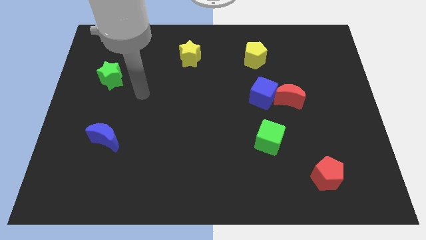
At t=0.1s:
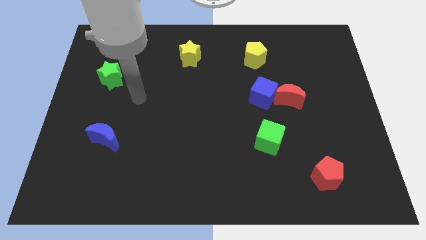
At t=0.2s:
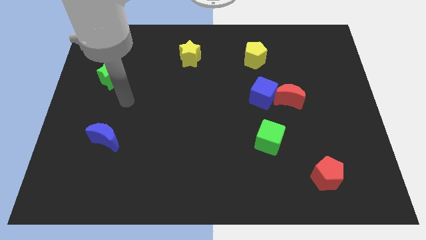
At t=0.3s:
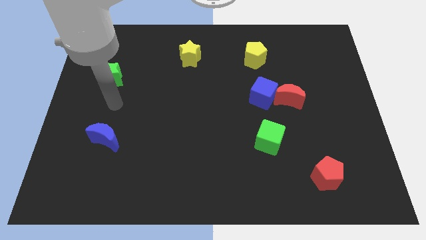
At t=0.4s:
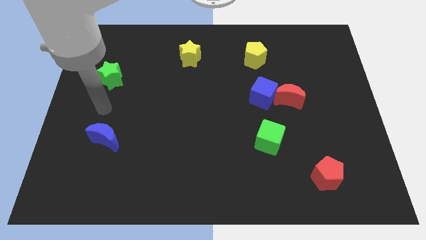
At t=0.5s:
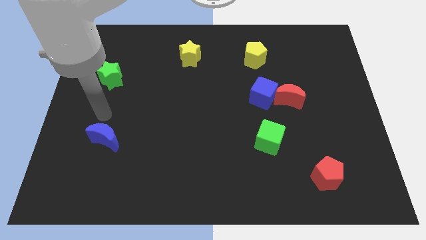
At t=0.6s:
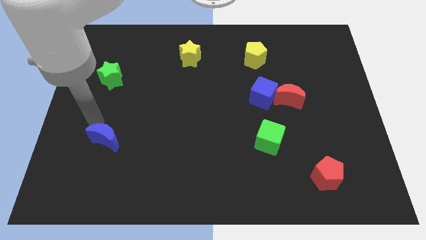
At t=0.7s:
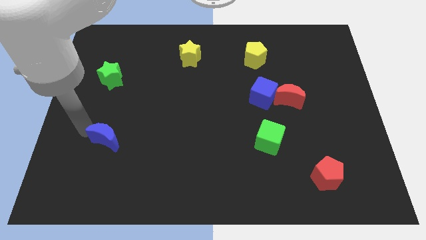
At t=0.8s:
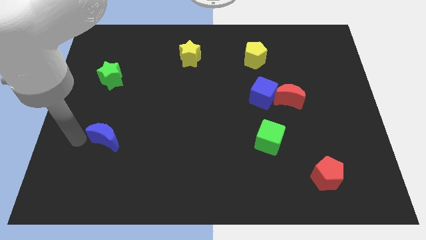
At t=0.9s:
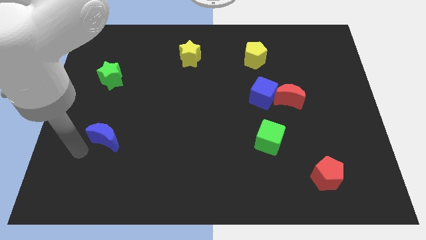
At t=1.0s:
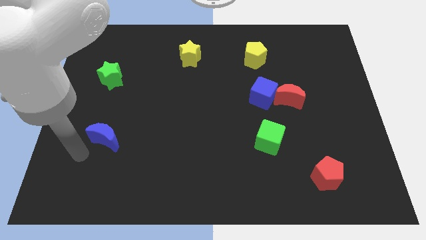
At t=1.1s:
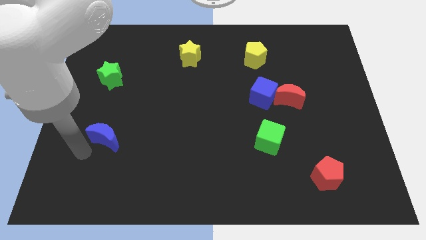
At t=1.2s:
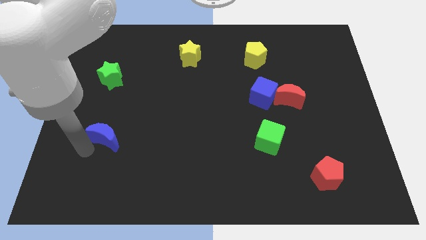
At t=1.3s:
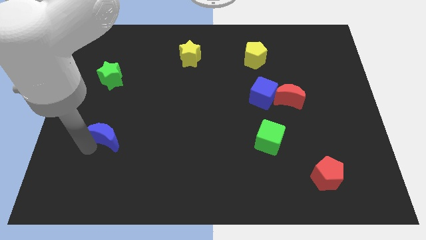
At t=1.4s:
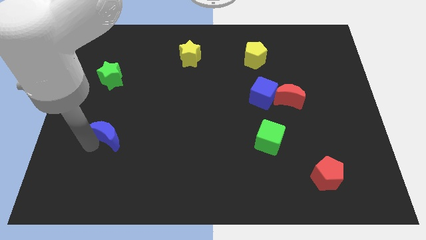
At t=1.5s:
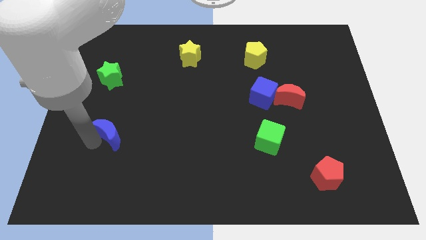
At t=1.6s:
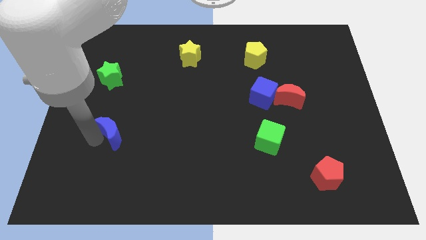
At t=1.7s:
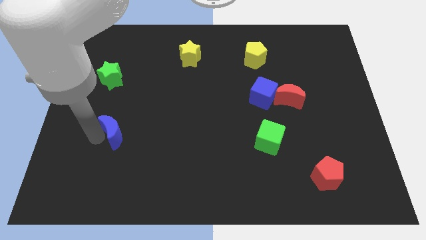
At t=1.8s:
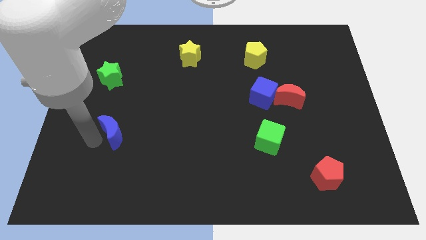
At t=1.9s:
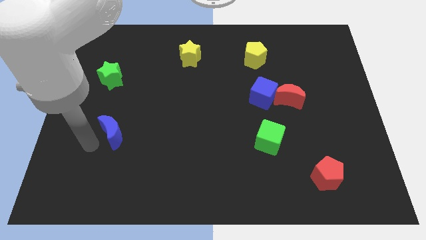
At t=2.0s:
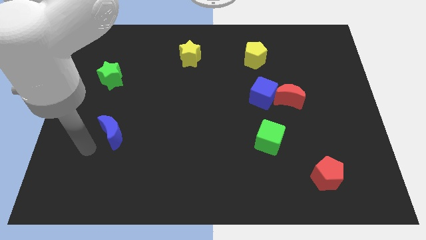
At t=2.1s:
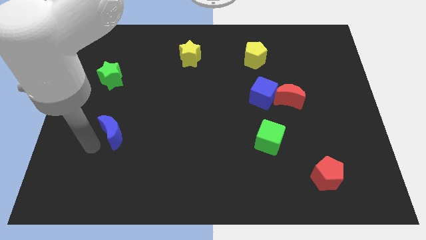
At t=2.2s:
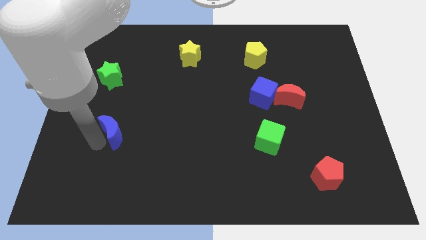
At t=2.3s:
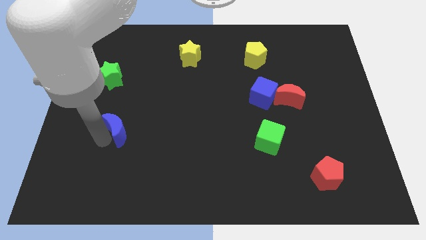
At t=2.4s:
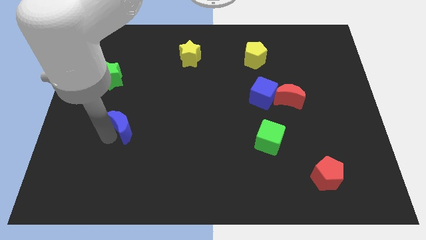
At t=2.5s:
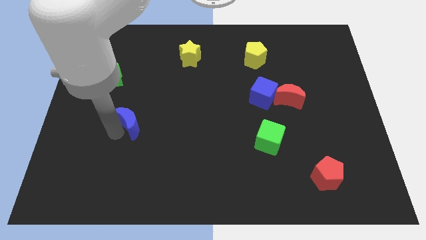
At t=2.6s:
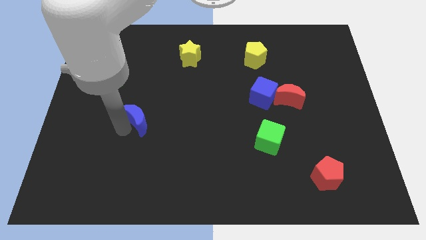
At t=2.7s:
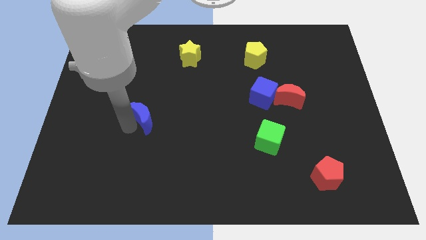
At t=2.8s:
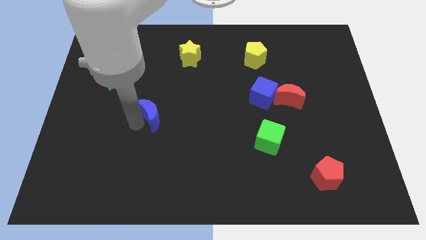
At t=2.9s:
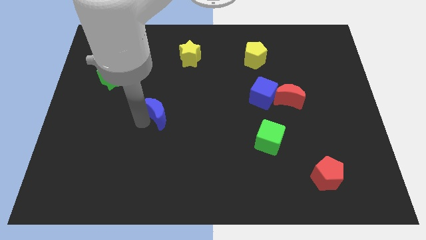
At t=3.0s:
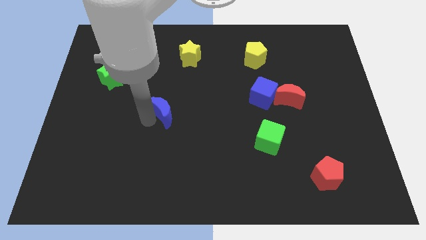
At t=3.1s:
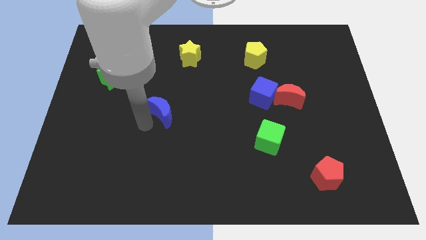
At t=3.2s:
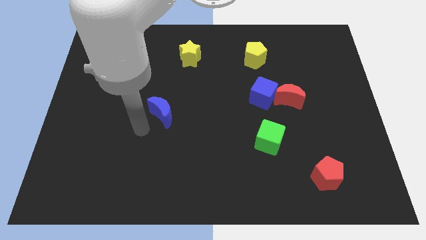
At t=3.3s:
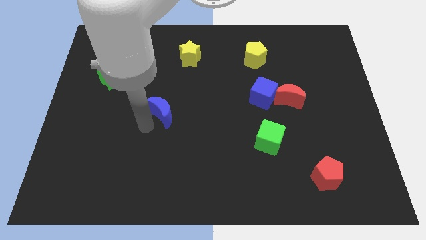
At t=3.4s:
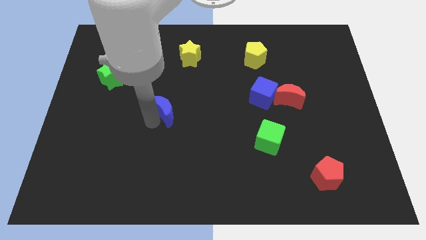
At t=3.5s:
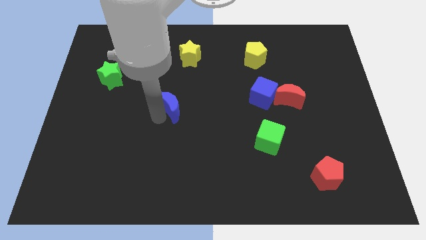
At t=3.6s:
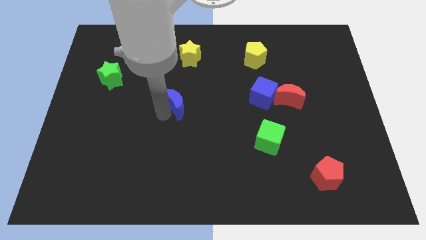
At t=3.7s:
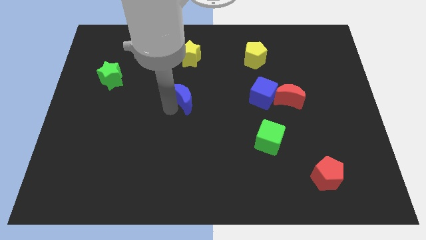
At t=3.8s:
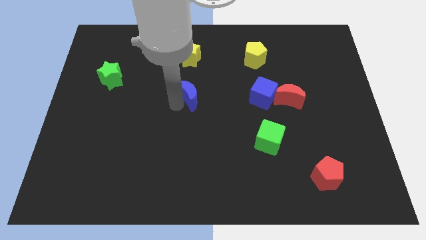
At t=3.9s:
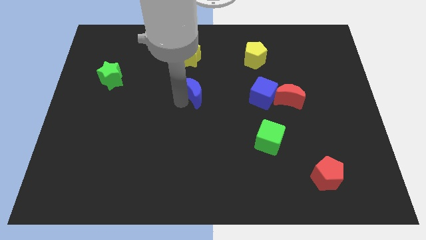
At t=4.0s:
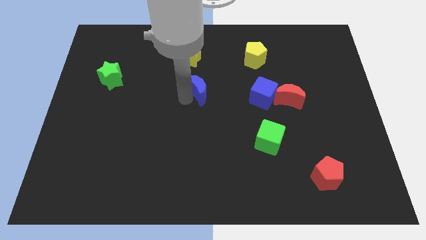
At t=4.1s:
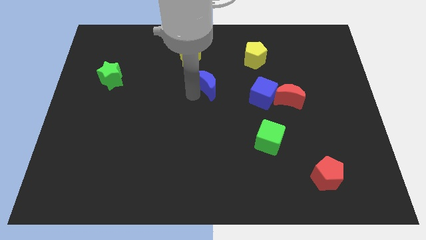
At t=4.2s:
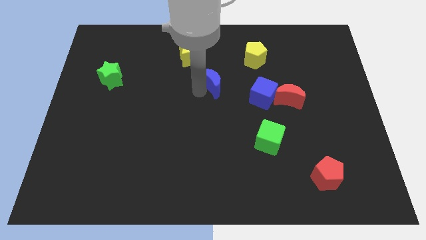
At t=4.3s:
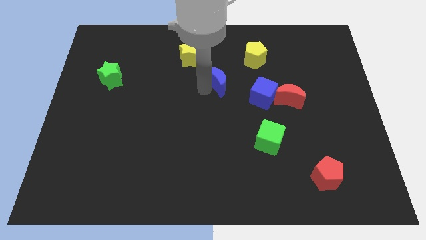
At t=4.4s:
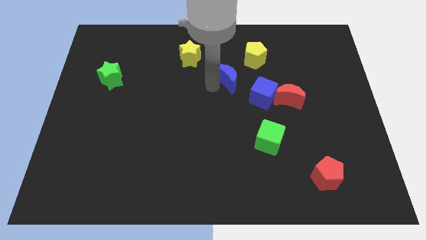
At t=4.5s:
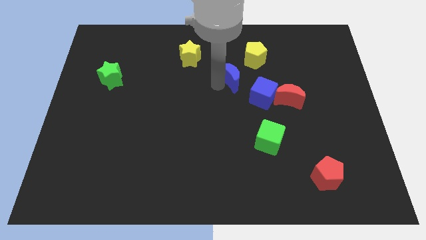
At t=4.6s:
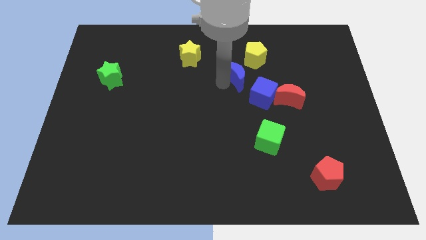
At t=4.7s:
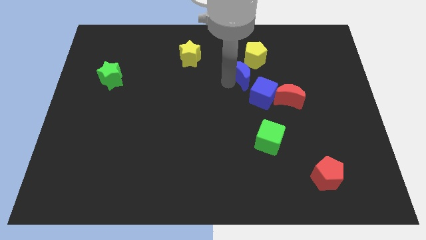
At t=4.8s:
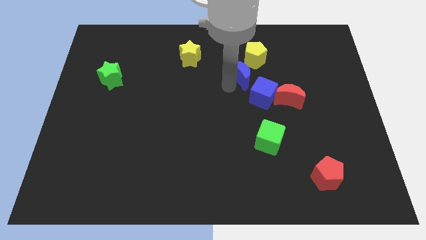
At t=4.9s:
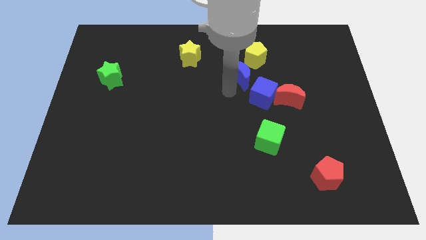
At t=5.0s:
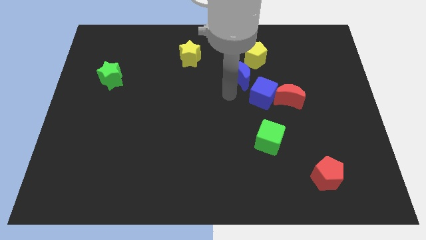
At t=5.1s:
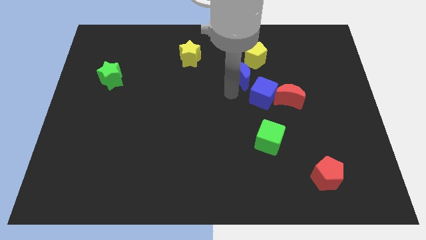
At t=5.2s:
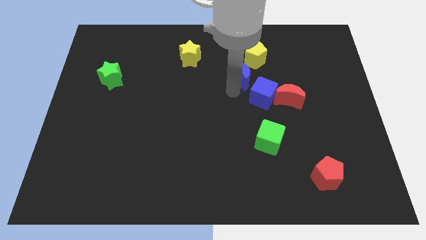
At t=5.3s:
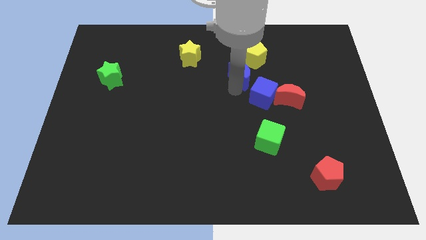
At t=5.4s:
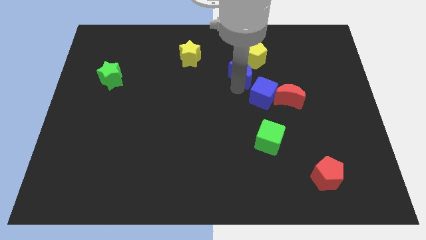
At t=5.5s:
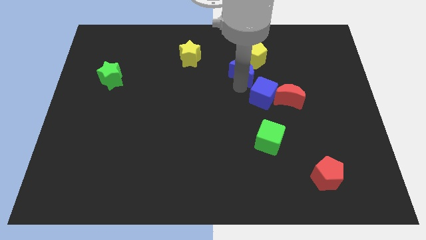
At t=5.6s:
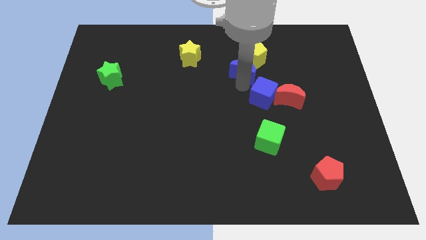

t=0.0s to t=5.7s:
push the blue moon next to the yellow pentagon

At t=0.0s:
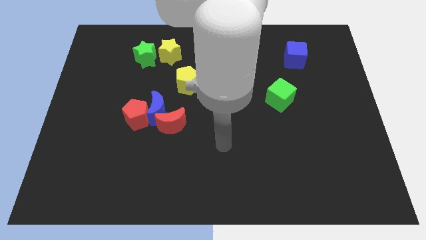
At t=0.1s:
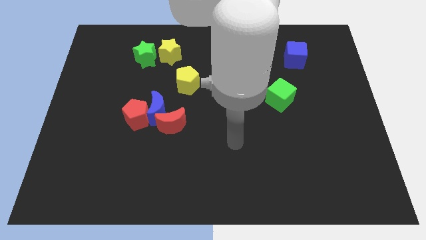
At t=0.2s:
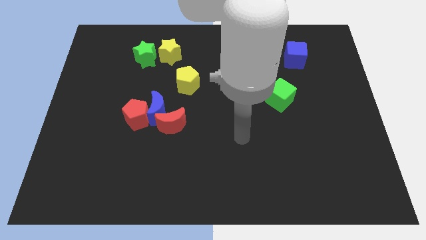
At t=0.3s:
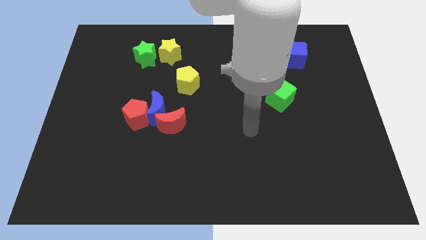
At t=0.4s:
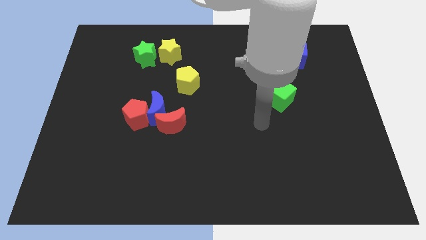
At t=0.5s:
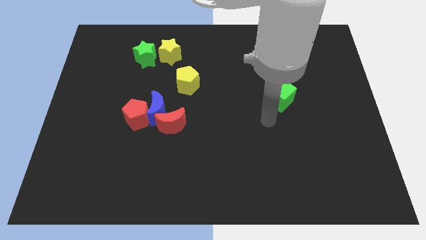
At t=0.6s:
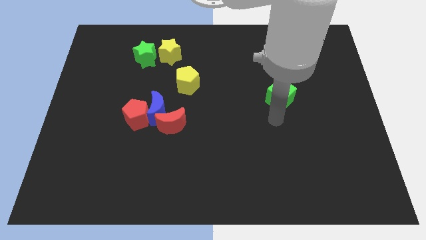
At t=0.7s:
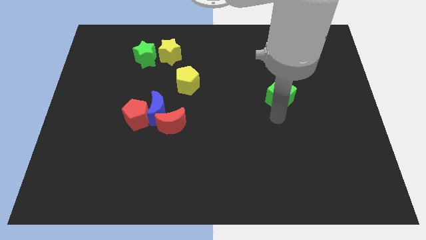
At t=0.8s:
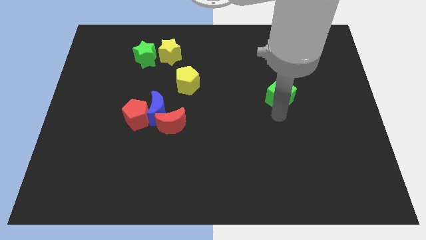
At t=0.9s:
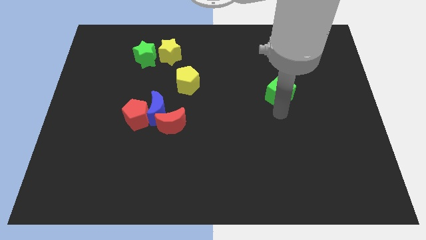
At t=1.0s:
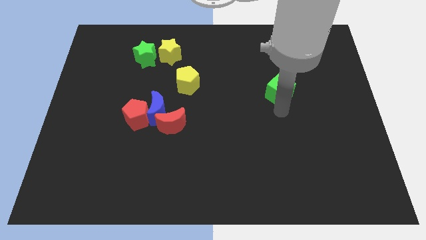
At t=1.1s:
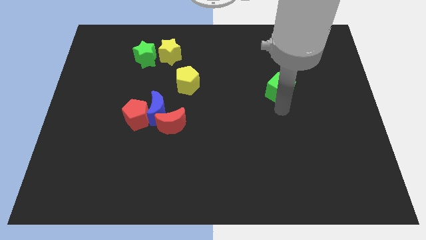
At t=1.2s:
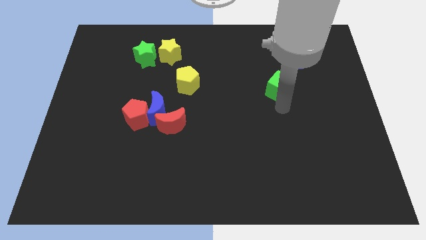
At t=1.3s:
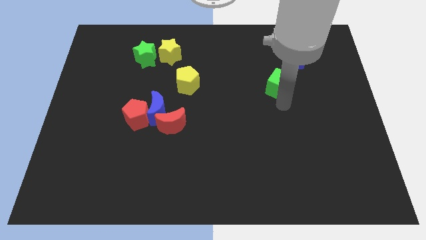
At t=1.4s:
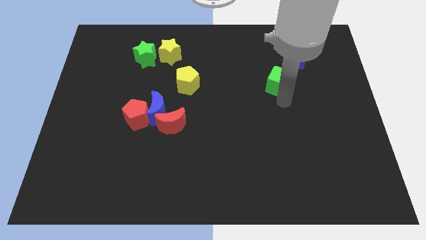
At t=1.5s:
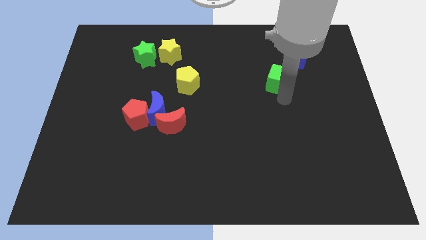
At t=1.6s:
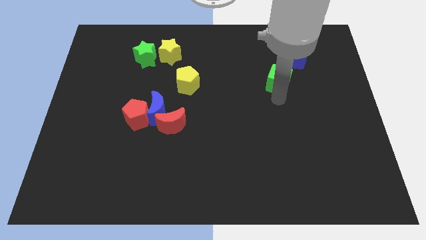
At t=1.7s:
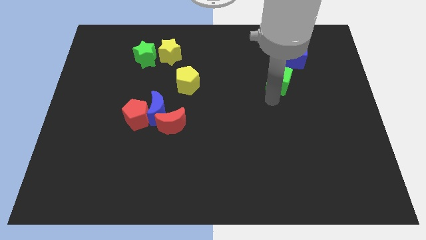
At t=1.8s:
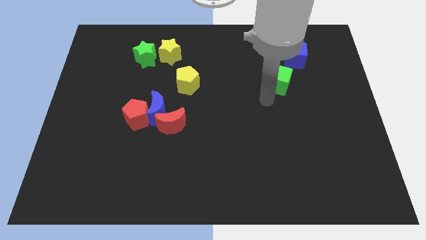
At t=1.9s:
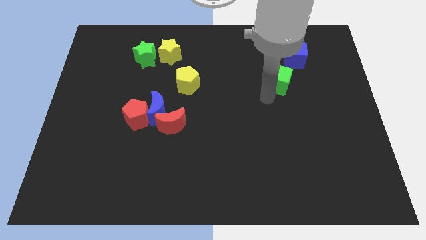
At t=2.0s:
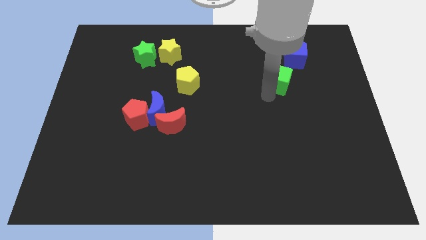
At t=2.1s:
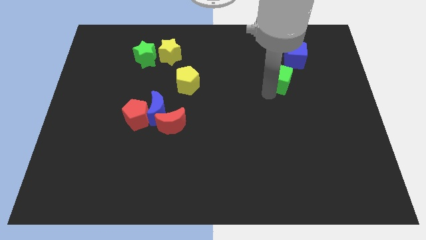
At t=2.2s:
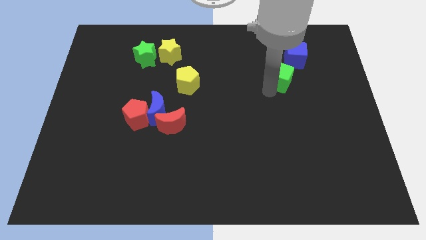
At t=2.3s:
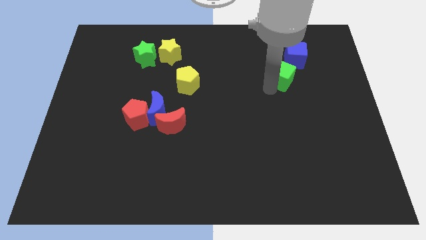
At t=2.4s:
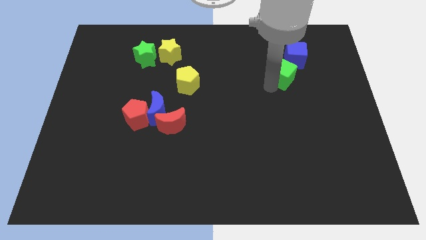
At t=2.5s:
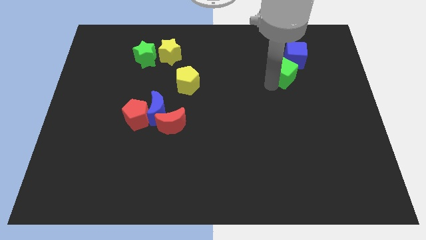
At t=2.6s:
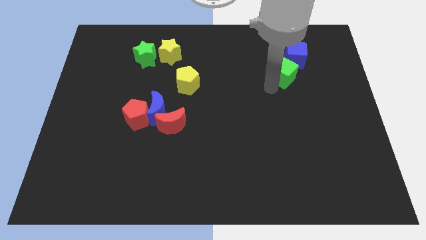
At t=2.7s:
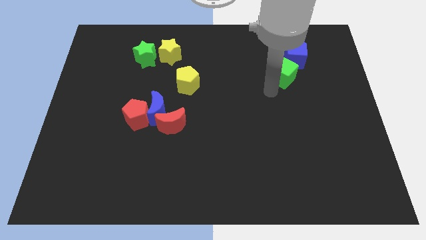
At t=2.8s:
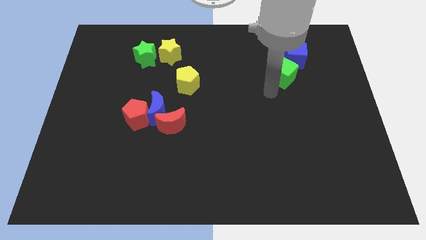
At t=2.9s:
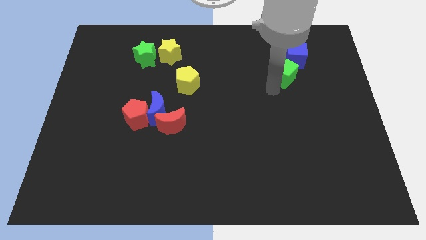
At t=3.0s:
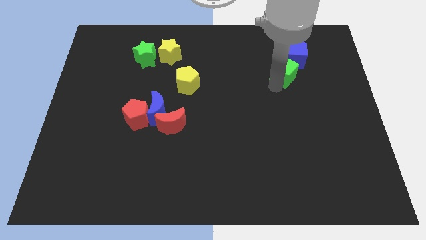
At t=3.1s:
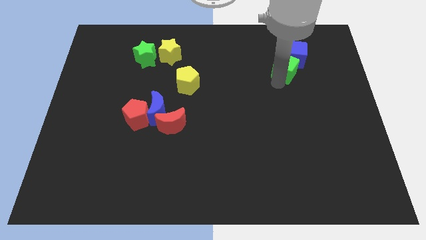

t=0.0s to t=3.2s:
move the green cube towards the blue cube
